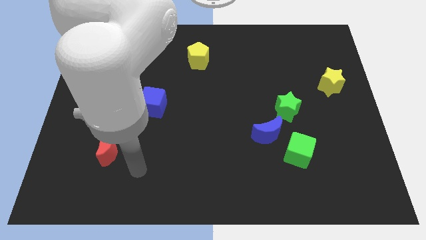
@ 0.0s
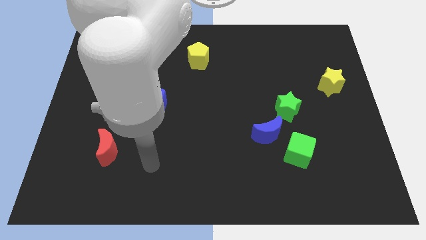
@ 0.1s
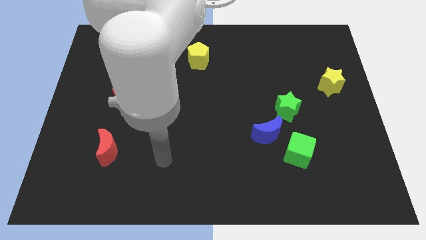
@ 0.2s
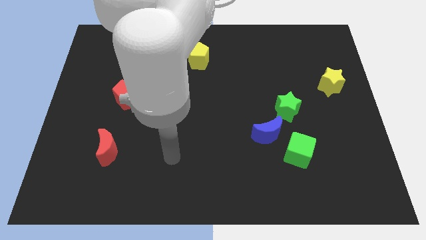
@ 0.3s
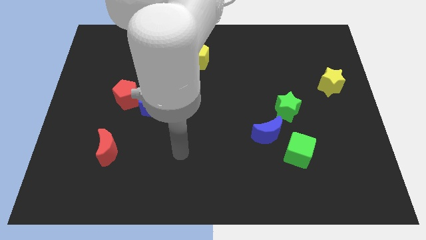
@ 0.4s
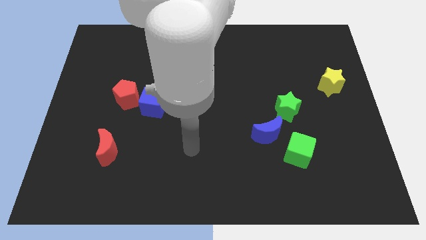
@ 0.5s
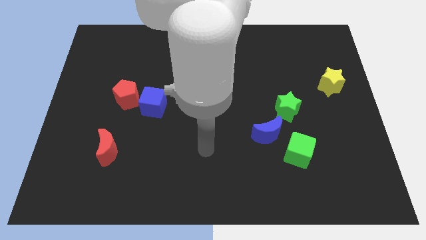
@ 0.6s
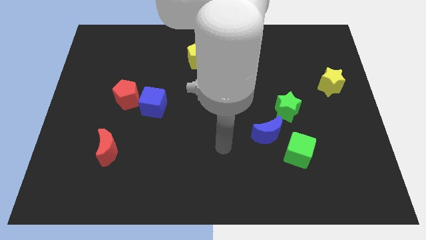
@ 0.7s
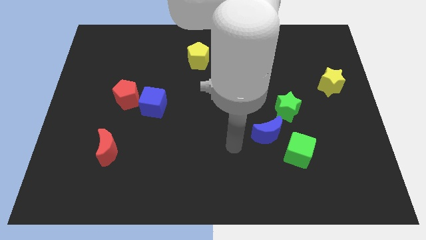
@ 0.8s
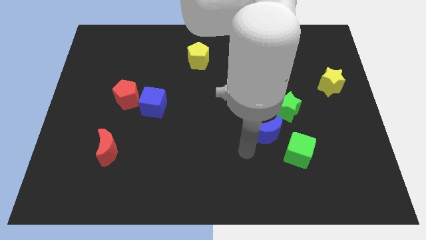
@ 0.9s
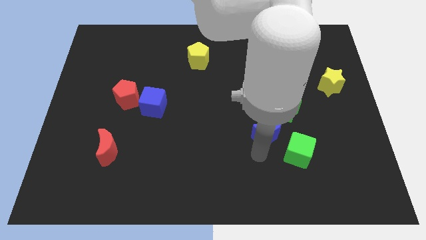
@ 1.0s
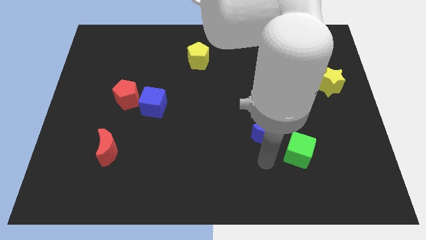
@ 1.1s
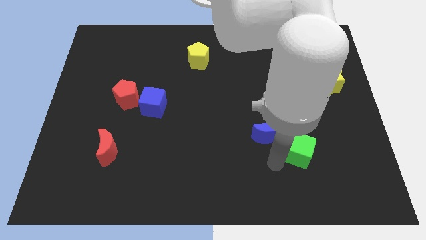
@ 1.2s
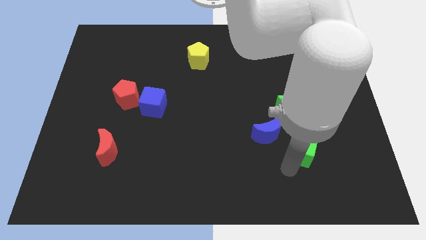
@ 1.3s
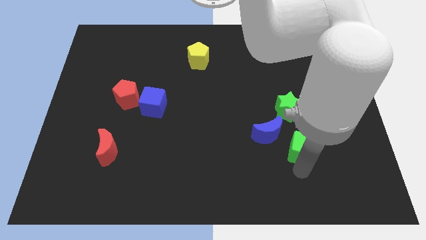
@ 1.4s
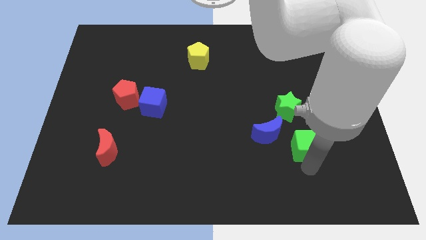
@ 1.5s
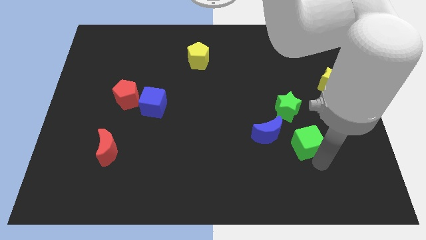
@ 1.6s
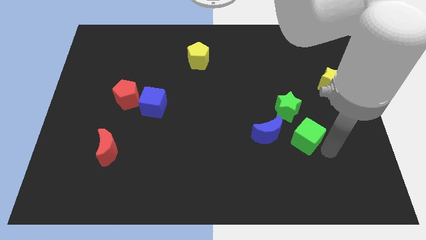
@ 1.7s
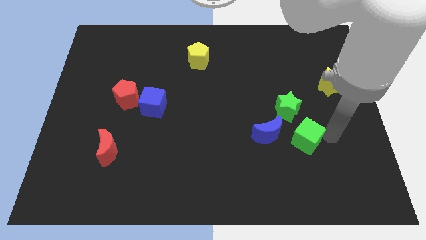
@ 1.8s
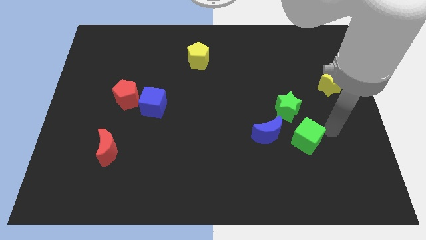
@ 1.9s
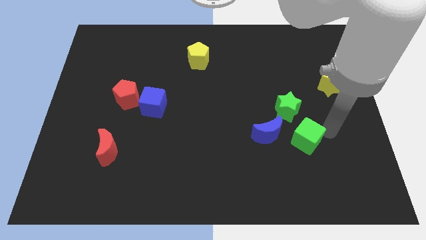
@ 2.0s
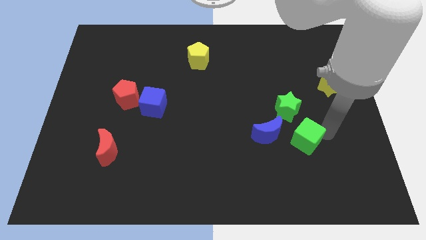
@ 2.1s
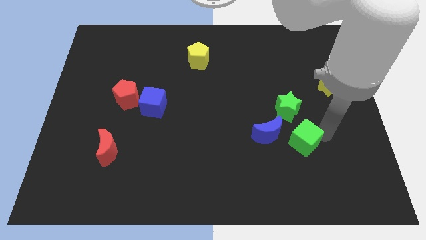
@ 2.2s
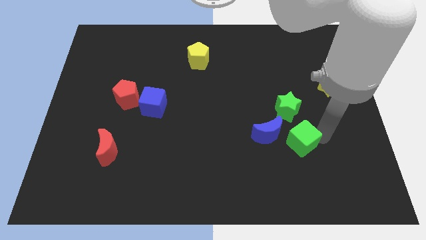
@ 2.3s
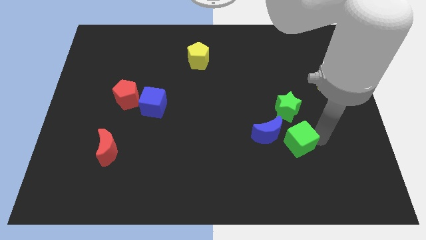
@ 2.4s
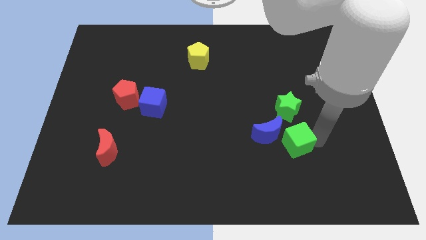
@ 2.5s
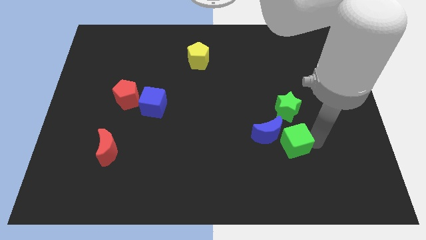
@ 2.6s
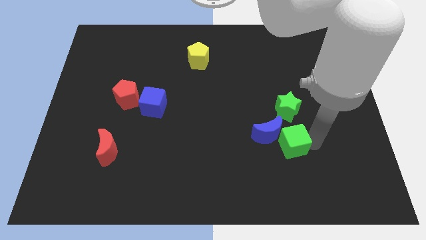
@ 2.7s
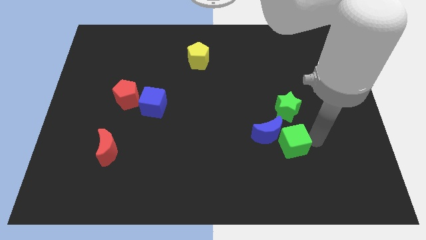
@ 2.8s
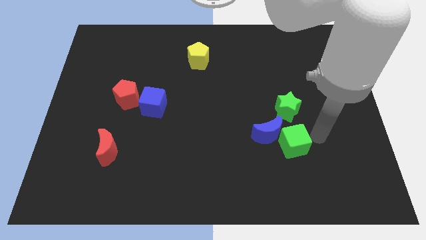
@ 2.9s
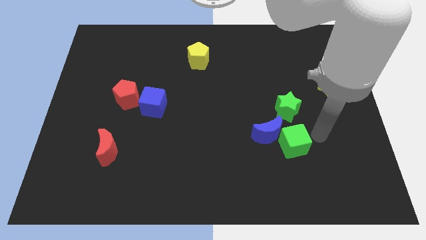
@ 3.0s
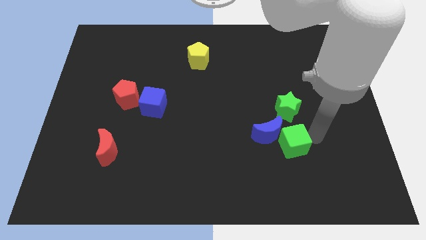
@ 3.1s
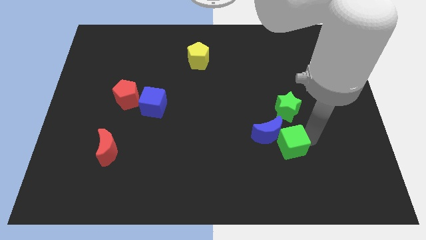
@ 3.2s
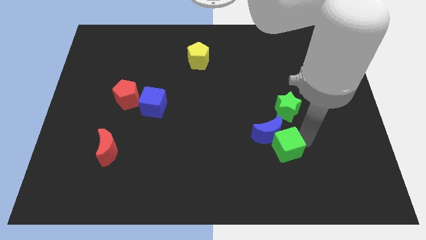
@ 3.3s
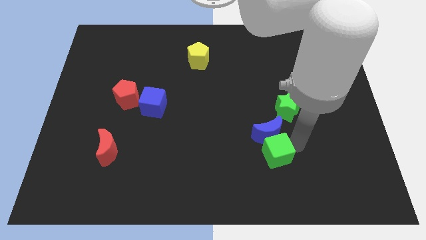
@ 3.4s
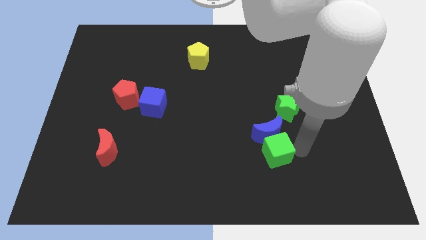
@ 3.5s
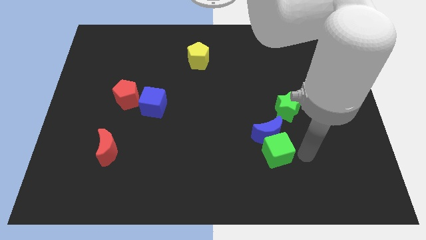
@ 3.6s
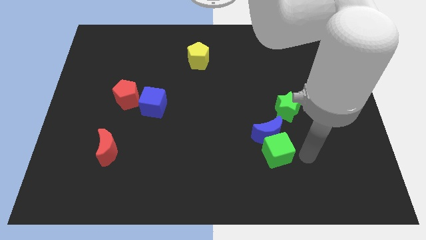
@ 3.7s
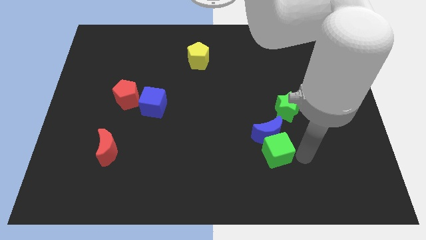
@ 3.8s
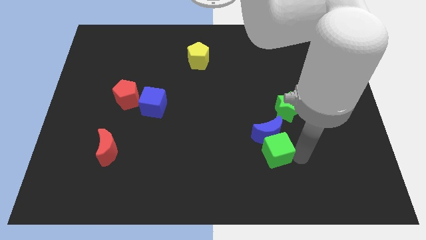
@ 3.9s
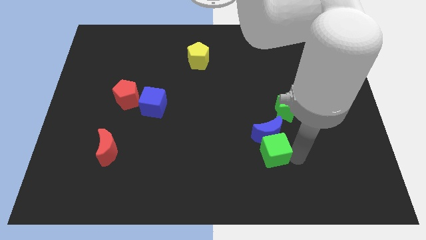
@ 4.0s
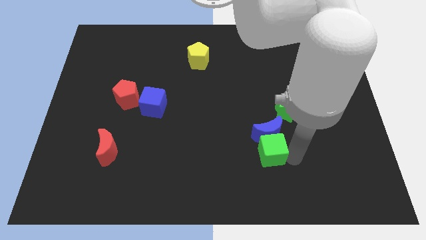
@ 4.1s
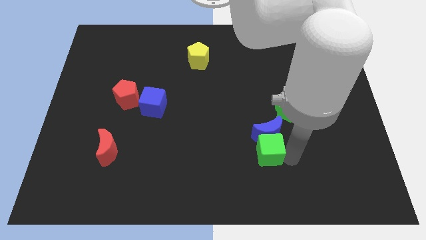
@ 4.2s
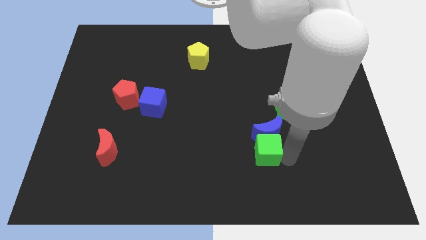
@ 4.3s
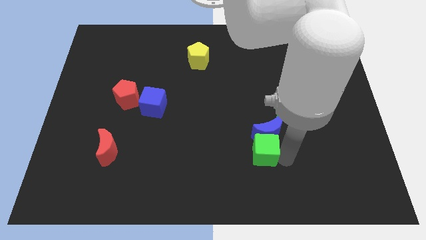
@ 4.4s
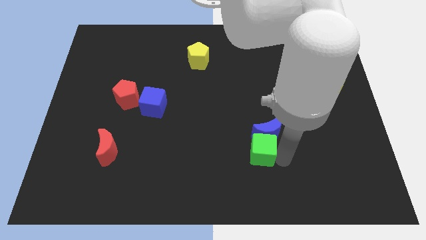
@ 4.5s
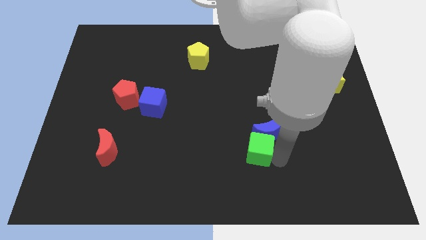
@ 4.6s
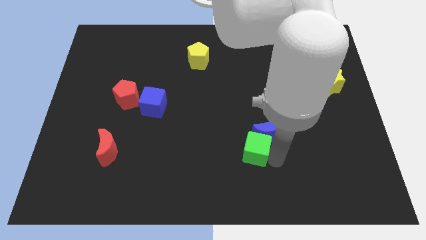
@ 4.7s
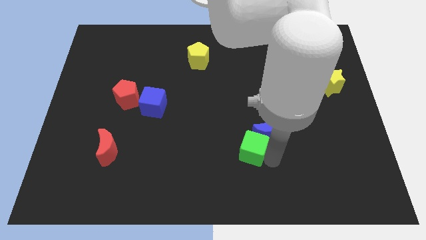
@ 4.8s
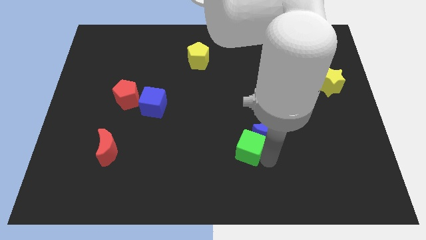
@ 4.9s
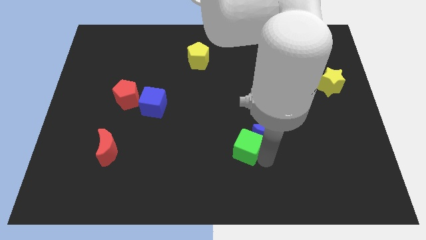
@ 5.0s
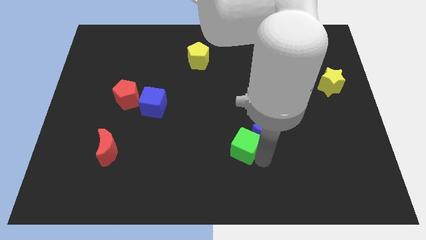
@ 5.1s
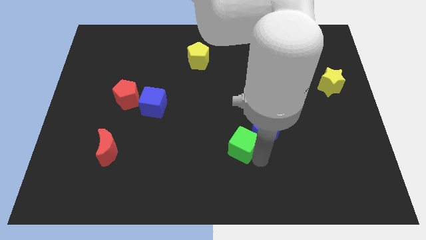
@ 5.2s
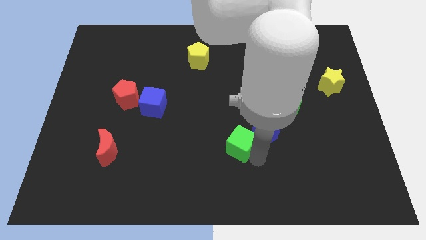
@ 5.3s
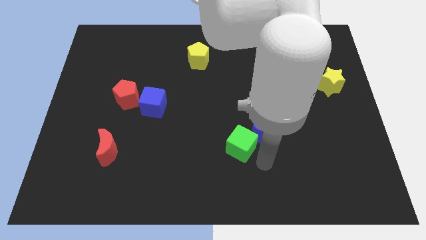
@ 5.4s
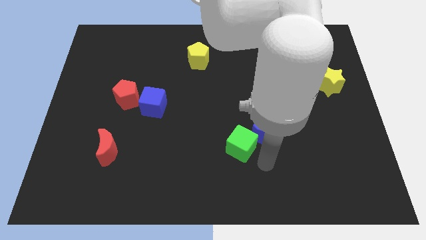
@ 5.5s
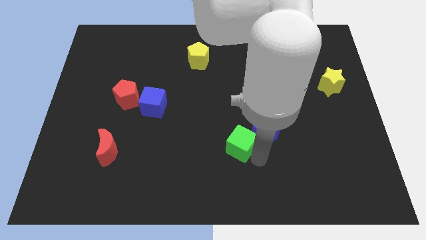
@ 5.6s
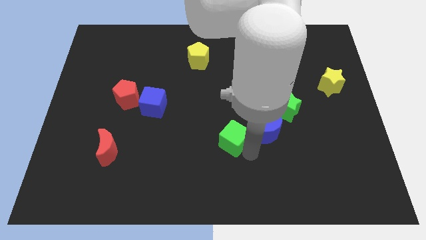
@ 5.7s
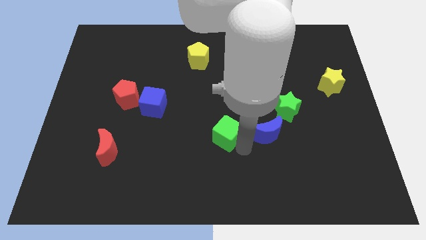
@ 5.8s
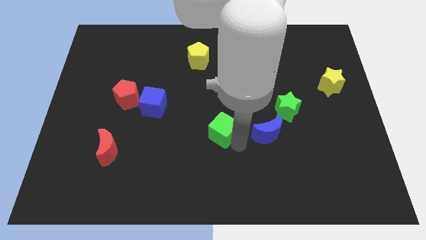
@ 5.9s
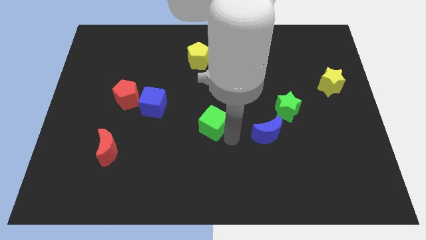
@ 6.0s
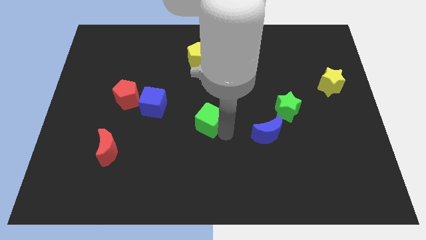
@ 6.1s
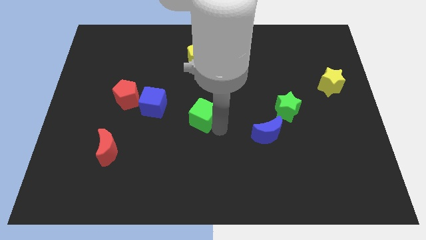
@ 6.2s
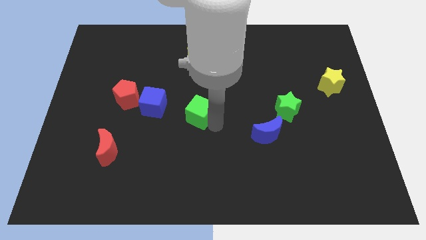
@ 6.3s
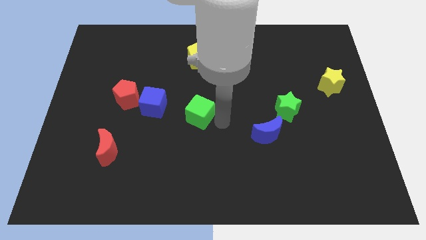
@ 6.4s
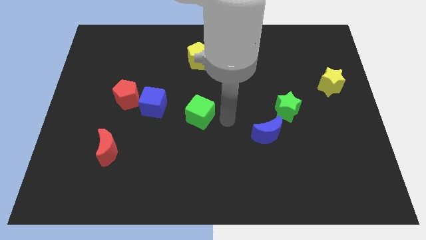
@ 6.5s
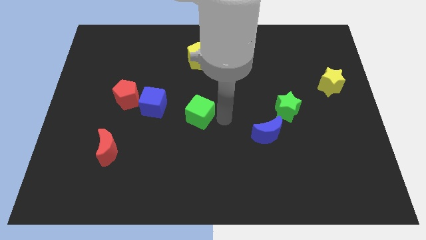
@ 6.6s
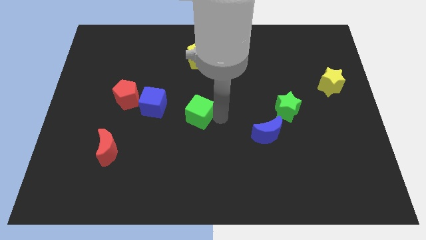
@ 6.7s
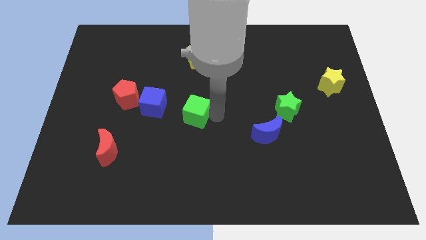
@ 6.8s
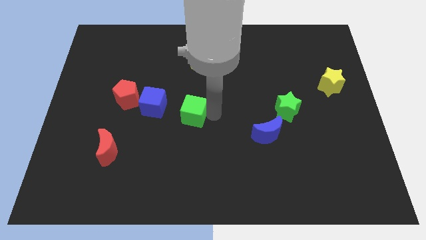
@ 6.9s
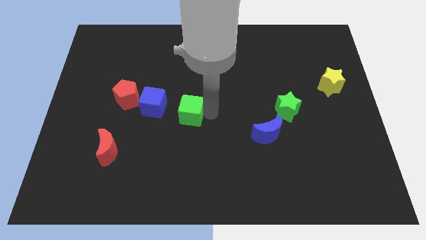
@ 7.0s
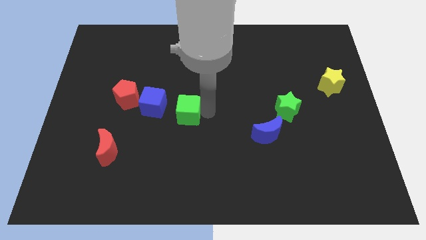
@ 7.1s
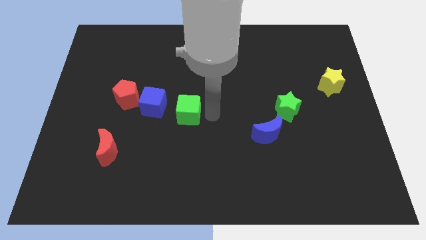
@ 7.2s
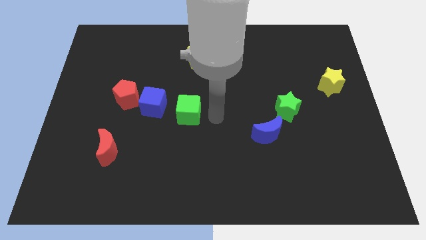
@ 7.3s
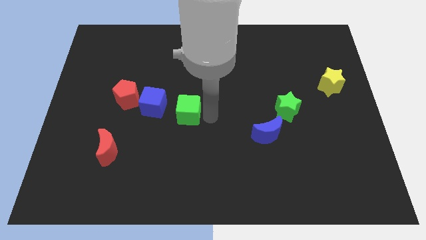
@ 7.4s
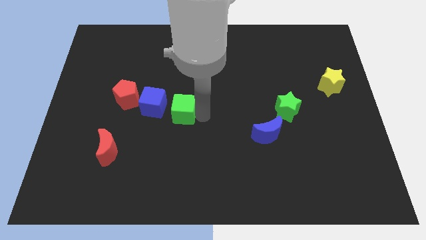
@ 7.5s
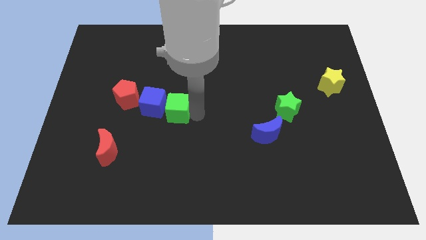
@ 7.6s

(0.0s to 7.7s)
push the green cube to the blue cube
